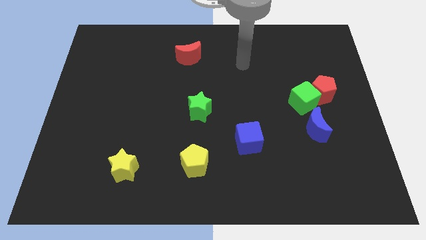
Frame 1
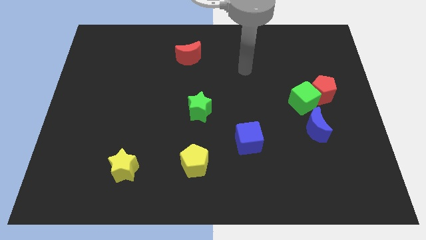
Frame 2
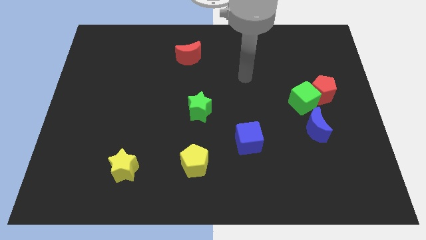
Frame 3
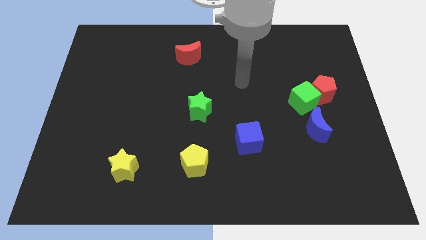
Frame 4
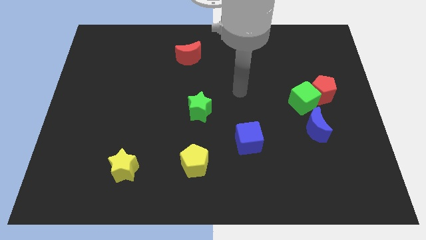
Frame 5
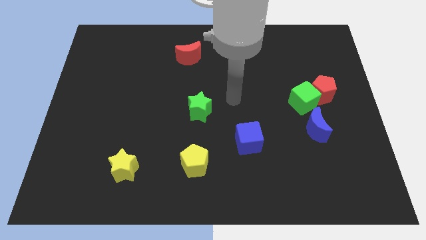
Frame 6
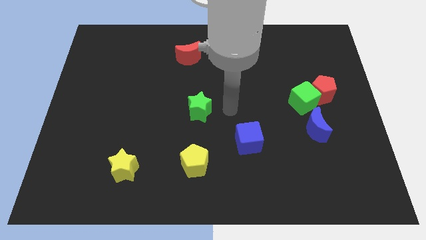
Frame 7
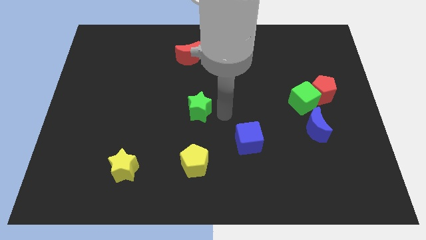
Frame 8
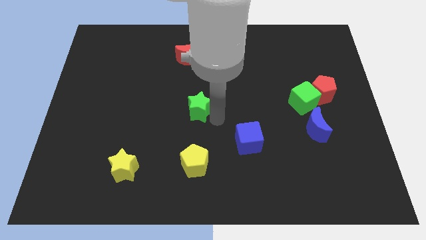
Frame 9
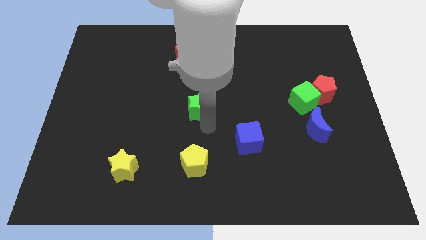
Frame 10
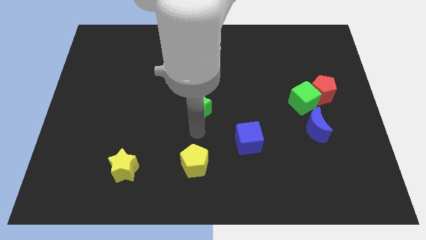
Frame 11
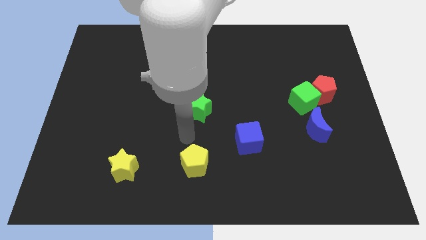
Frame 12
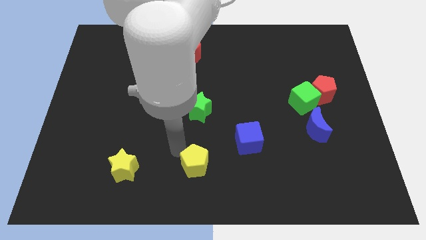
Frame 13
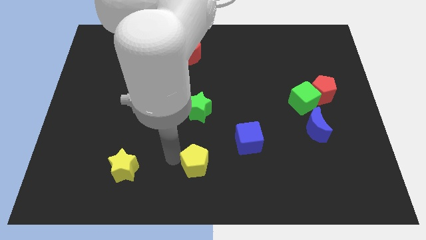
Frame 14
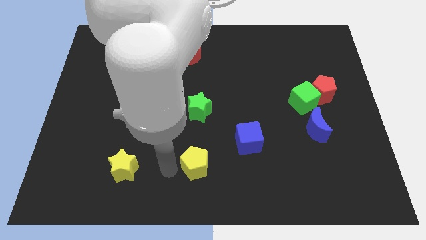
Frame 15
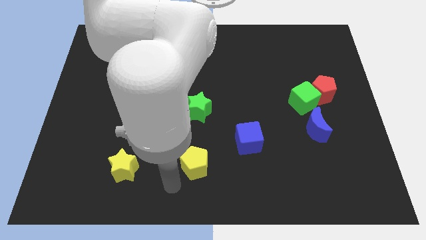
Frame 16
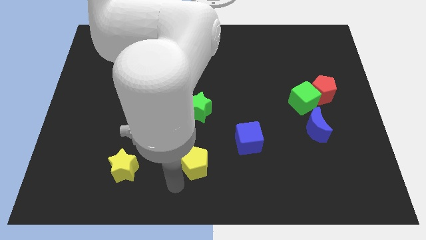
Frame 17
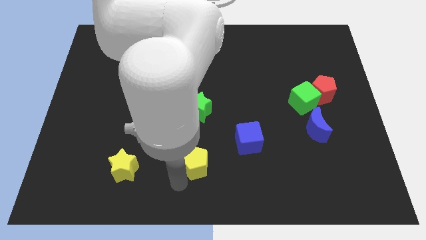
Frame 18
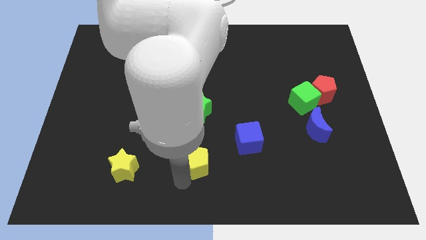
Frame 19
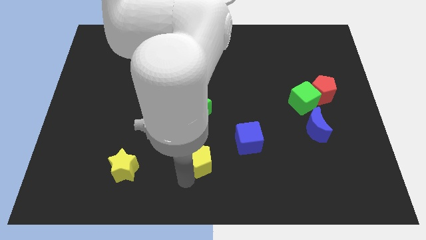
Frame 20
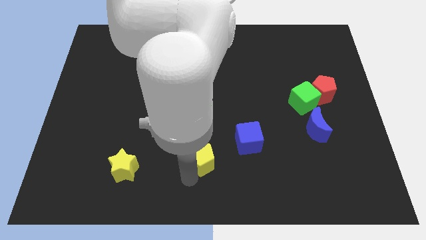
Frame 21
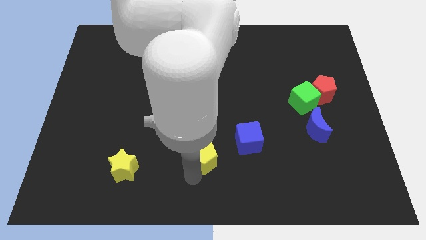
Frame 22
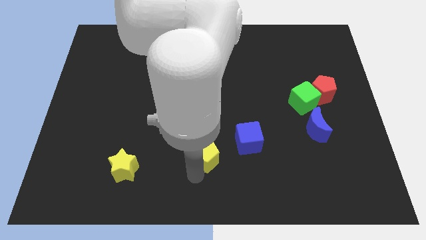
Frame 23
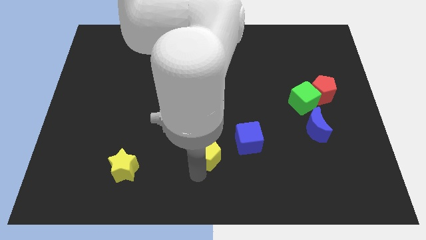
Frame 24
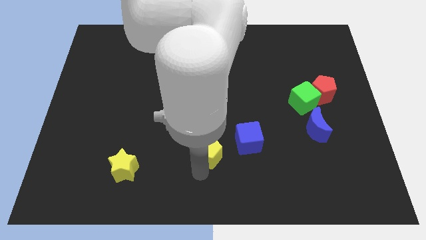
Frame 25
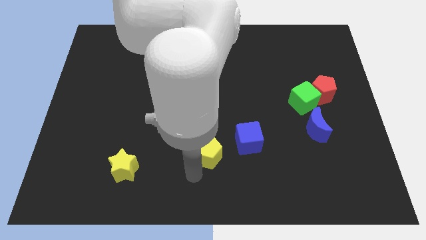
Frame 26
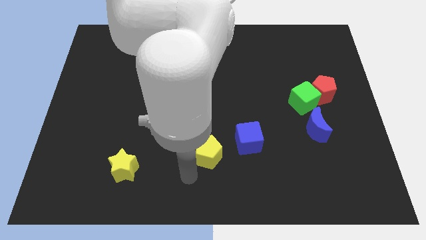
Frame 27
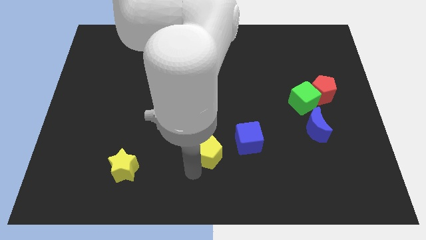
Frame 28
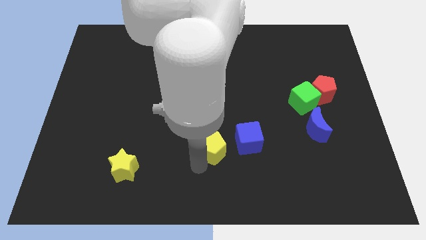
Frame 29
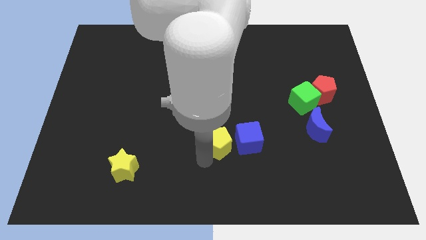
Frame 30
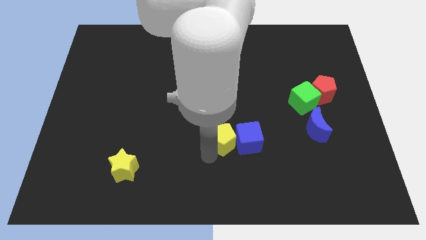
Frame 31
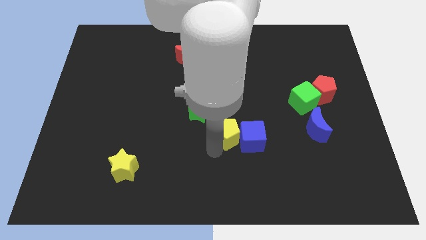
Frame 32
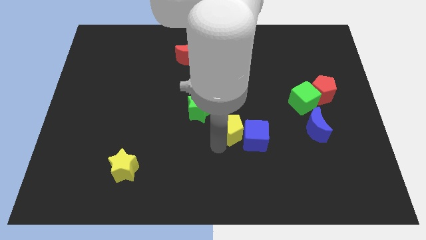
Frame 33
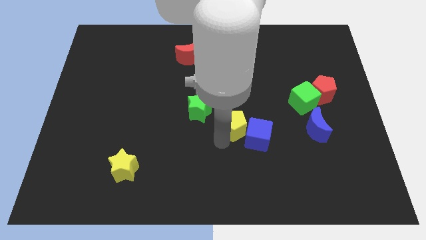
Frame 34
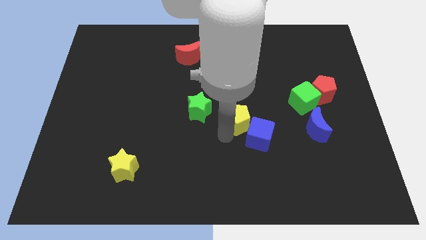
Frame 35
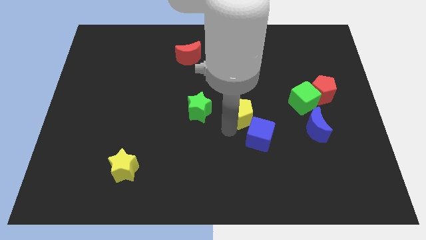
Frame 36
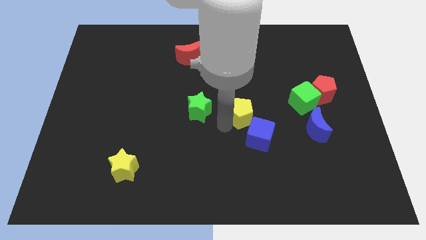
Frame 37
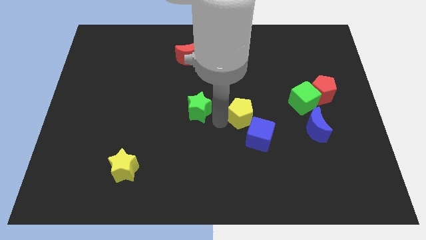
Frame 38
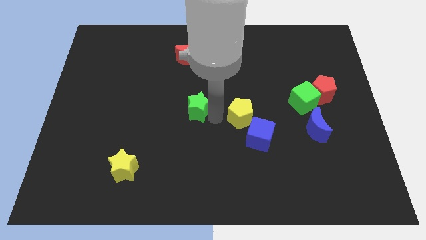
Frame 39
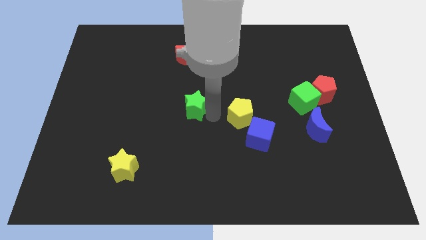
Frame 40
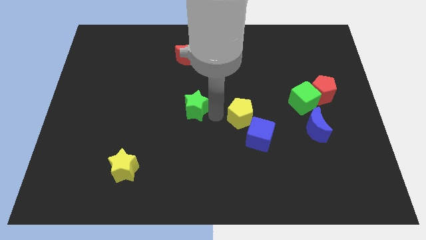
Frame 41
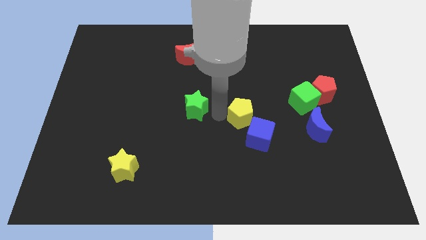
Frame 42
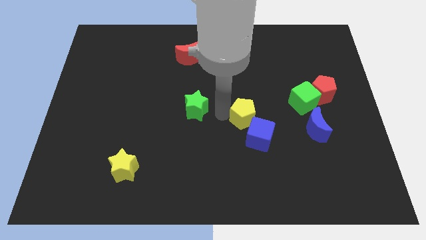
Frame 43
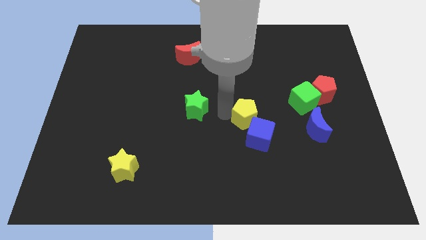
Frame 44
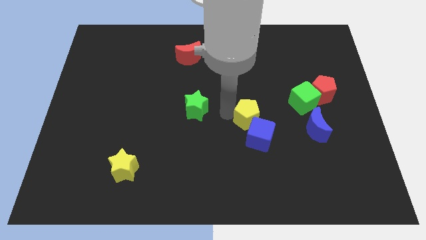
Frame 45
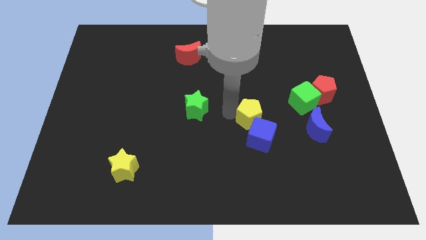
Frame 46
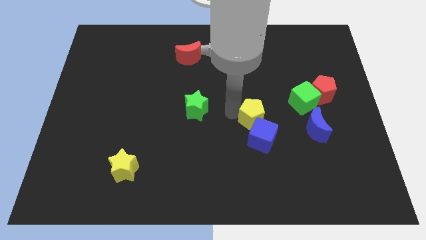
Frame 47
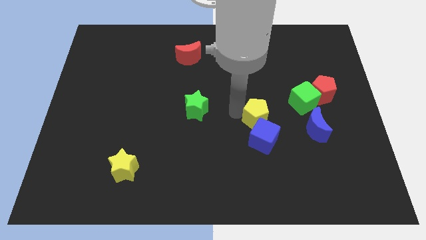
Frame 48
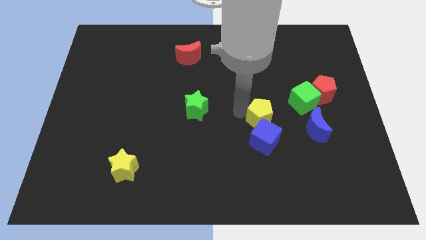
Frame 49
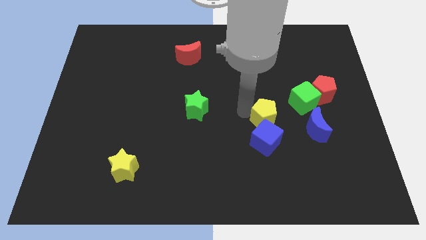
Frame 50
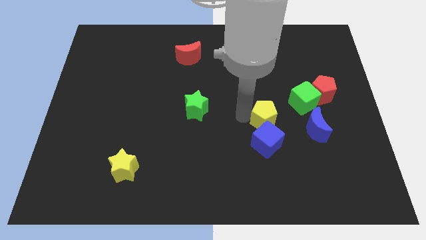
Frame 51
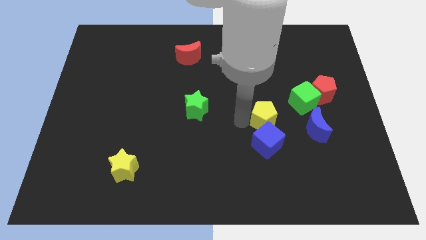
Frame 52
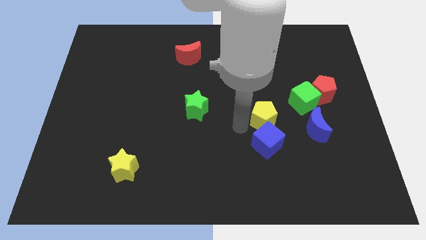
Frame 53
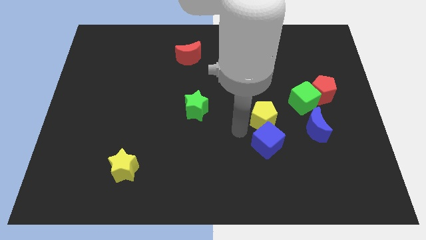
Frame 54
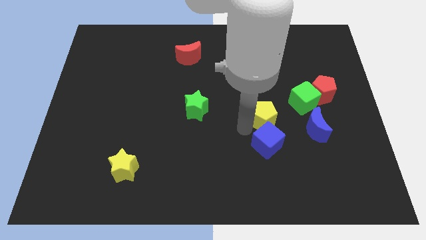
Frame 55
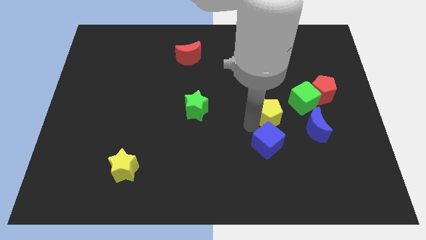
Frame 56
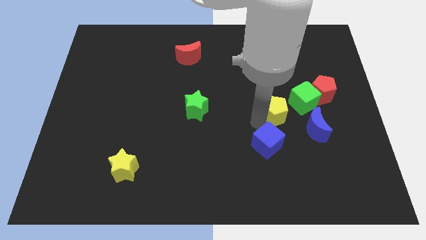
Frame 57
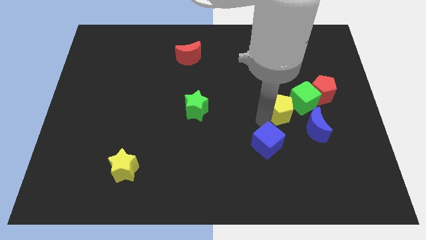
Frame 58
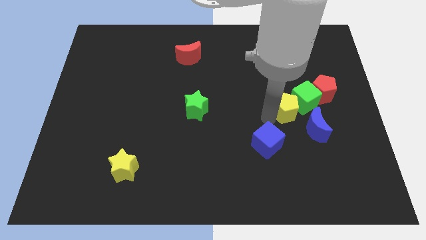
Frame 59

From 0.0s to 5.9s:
put the yellow pentagon to the green cube

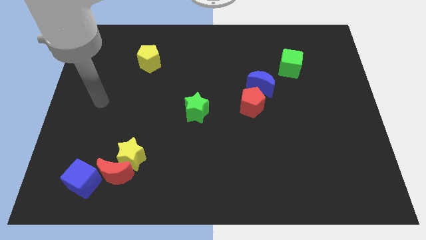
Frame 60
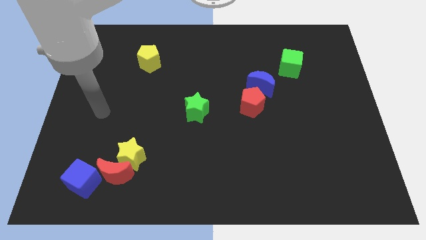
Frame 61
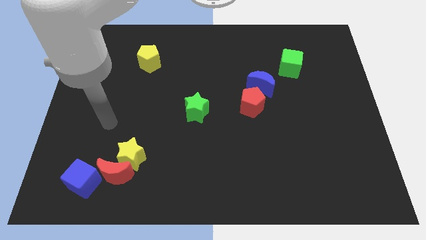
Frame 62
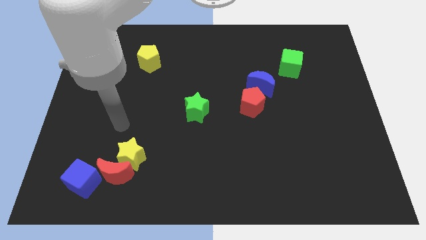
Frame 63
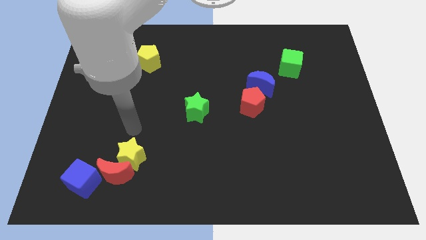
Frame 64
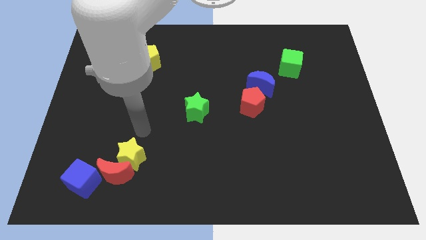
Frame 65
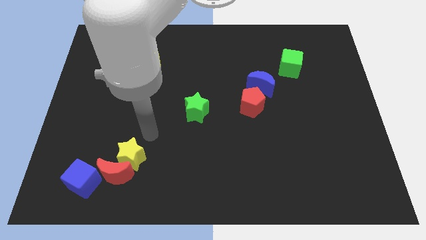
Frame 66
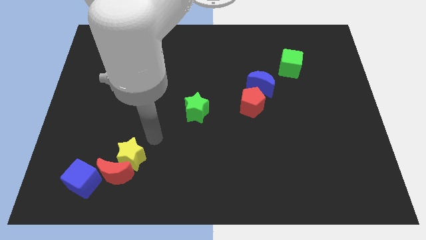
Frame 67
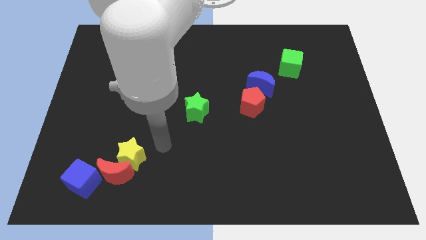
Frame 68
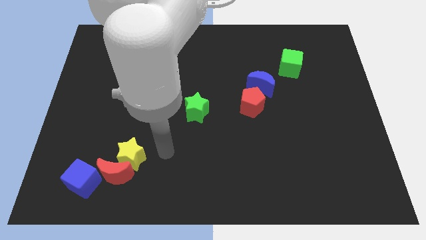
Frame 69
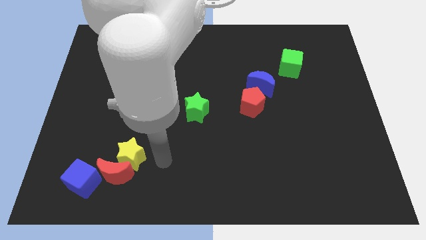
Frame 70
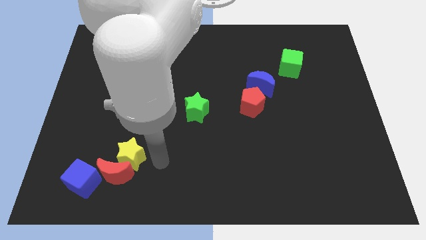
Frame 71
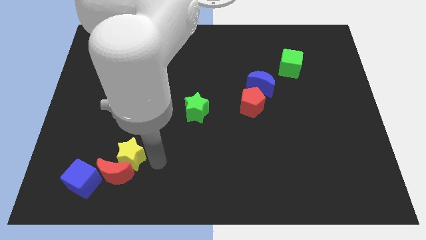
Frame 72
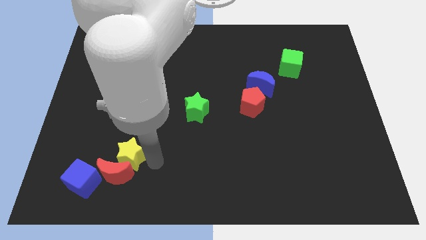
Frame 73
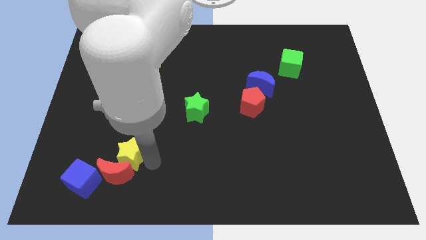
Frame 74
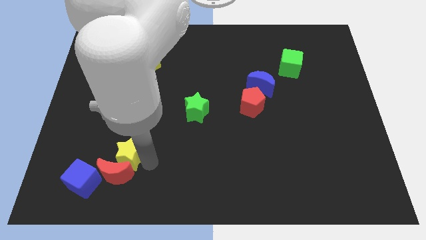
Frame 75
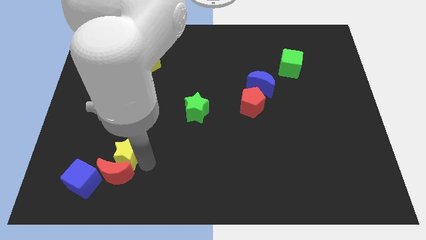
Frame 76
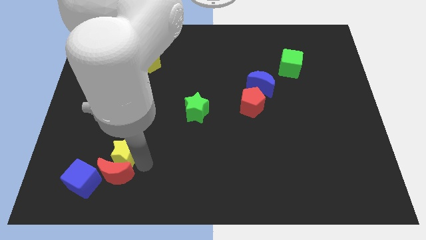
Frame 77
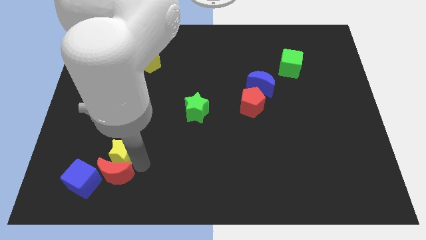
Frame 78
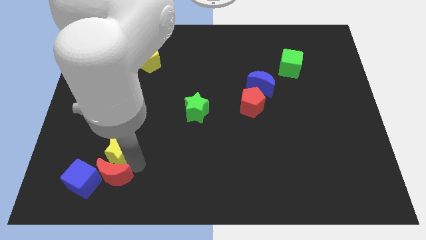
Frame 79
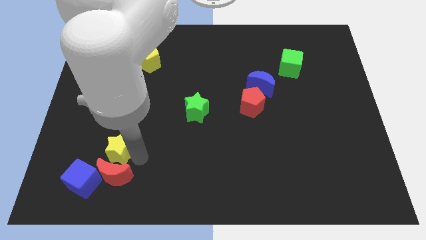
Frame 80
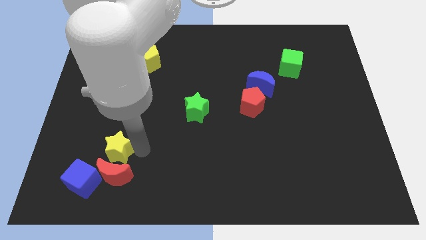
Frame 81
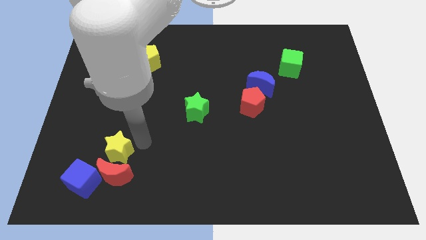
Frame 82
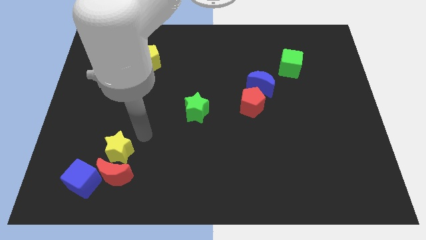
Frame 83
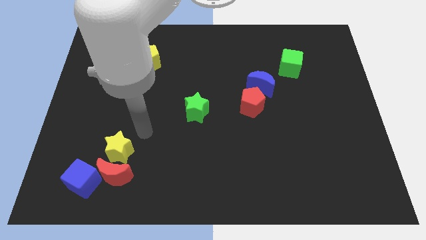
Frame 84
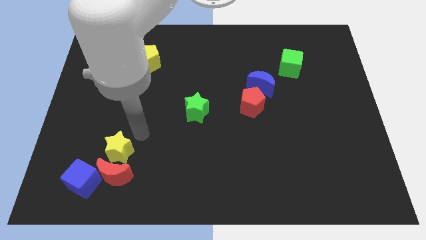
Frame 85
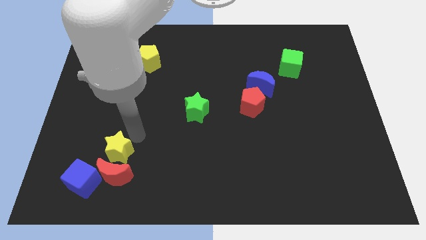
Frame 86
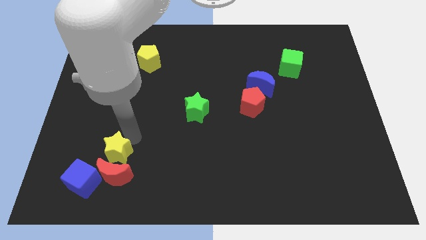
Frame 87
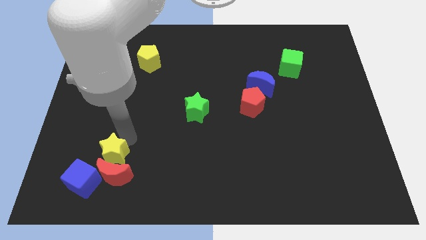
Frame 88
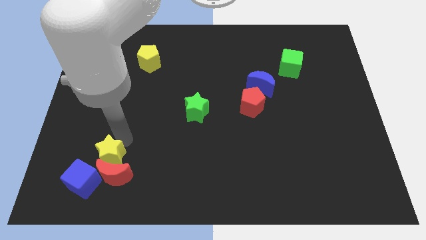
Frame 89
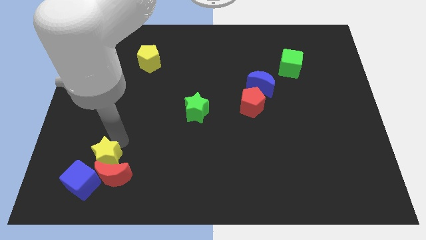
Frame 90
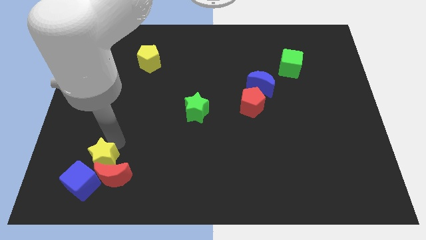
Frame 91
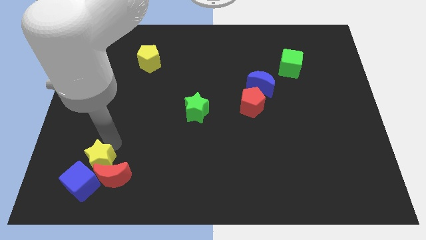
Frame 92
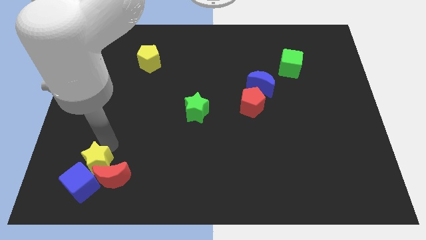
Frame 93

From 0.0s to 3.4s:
put the yellow star towards the blue cube
